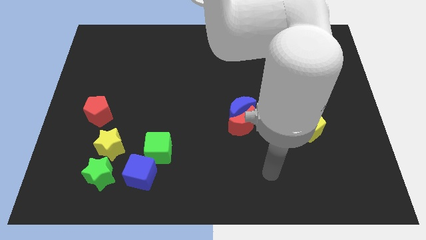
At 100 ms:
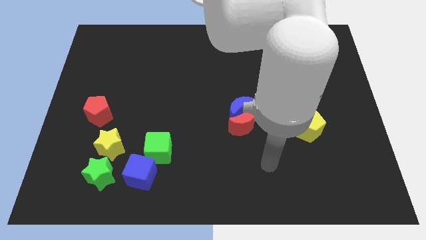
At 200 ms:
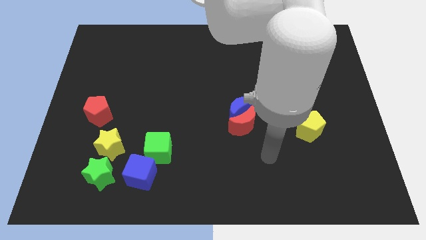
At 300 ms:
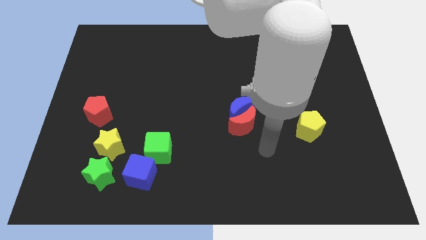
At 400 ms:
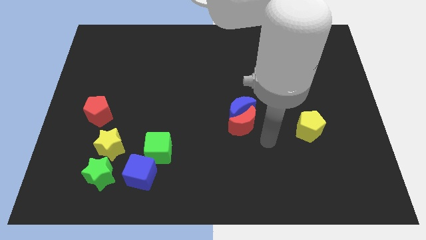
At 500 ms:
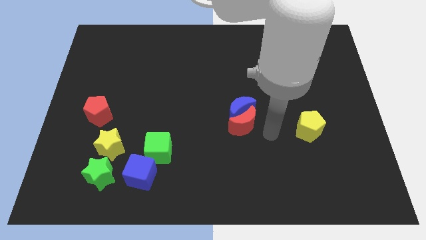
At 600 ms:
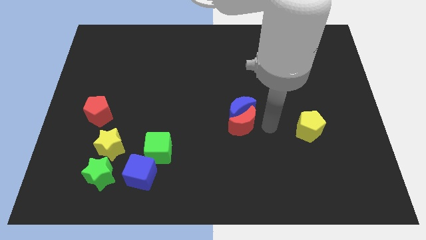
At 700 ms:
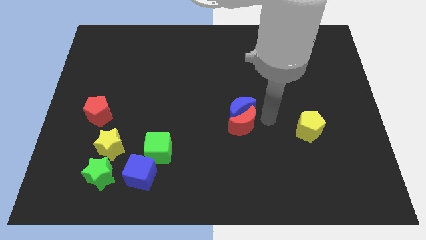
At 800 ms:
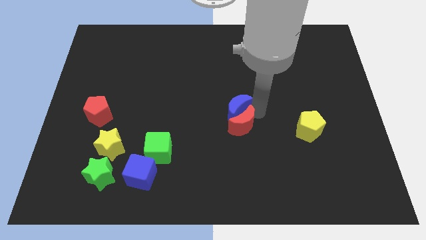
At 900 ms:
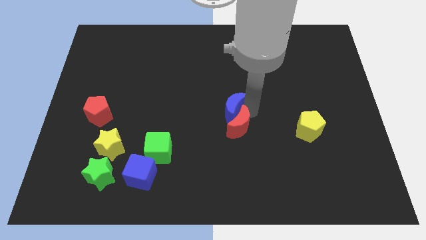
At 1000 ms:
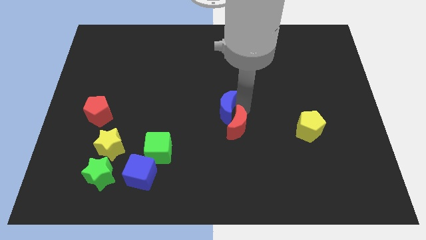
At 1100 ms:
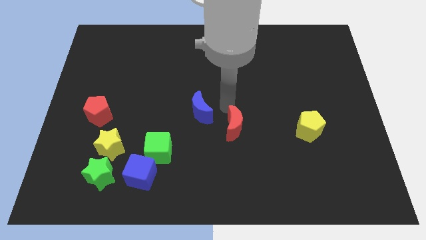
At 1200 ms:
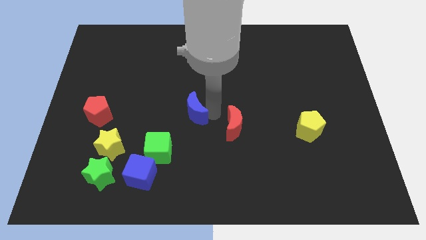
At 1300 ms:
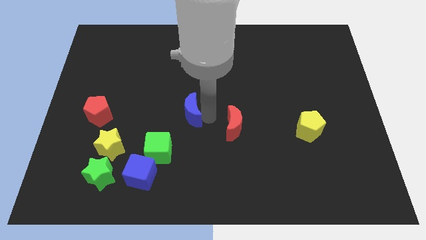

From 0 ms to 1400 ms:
pull the red moon apart from the blue moon

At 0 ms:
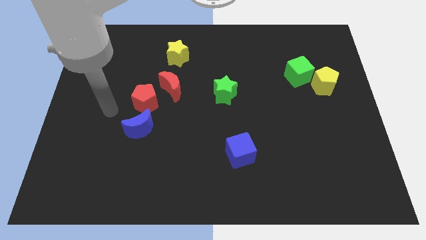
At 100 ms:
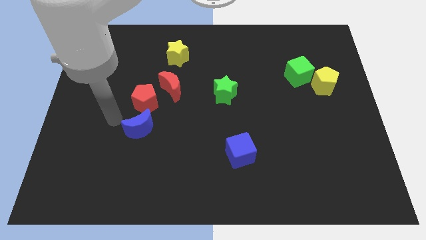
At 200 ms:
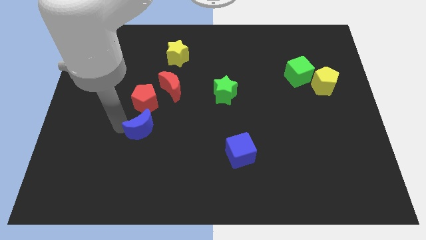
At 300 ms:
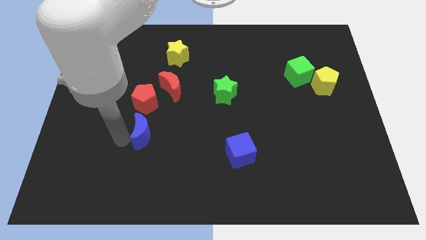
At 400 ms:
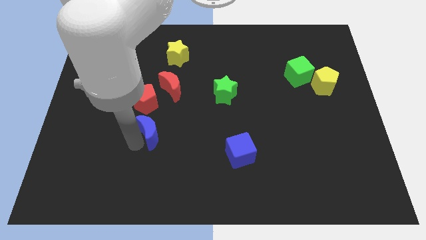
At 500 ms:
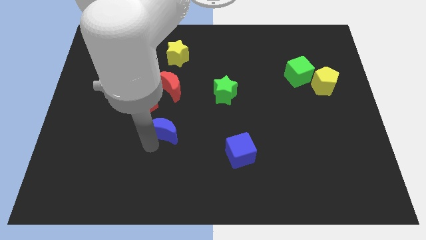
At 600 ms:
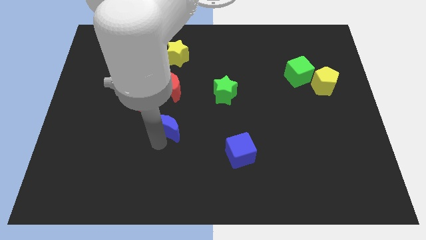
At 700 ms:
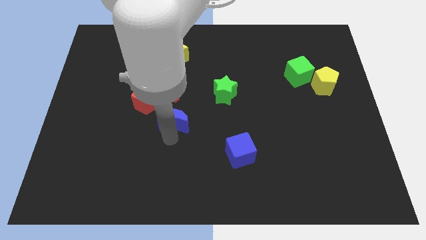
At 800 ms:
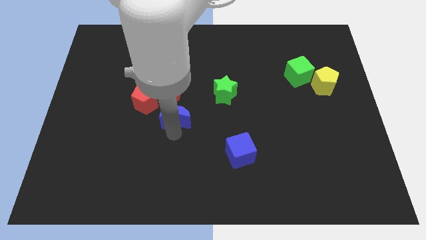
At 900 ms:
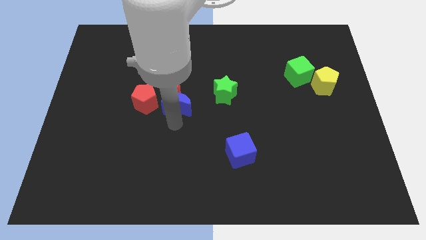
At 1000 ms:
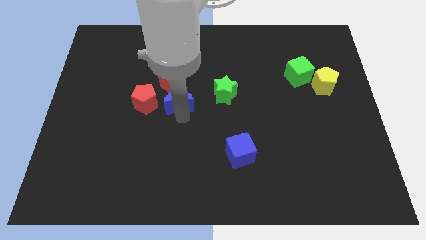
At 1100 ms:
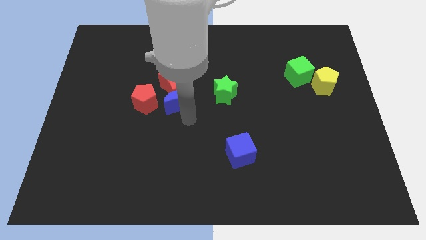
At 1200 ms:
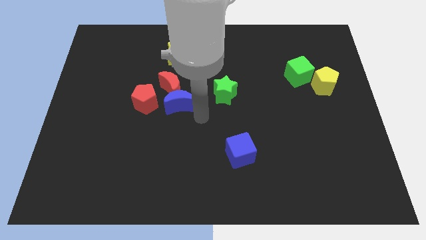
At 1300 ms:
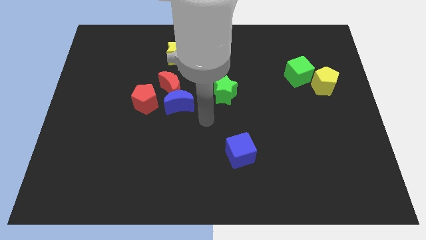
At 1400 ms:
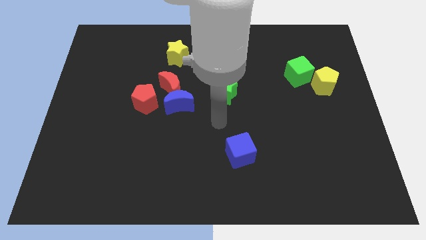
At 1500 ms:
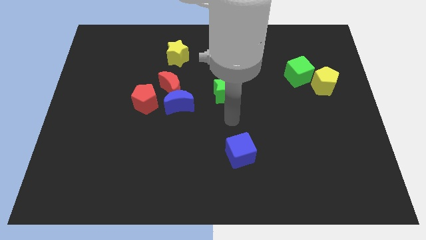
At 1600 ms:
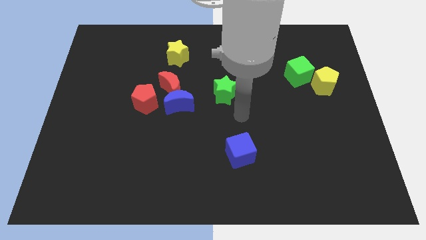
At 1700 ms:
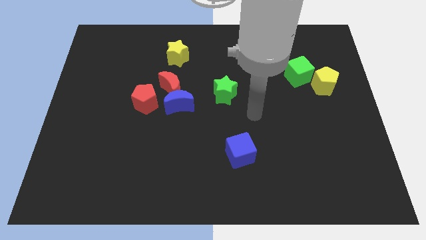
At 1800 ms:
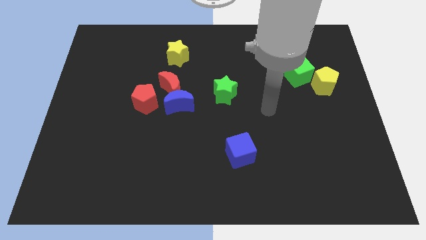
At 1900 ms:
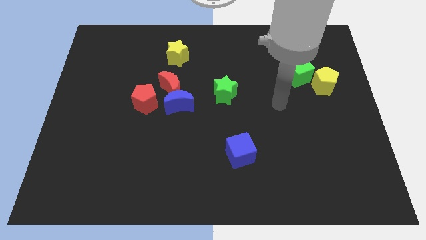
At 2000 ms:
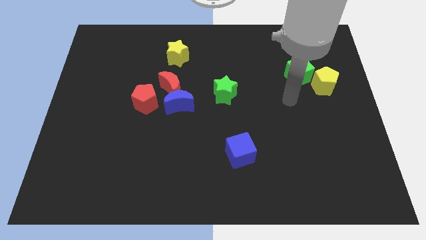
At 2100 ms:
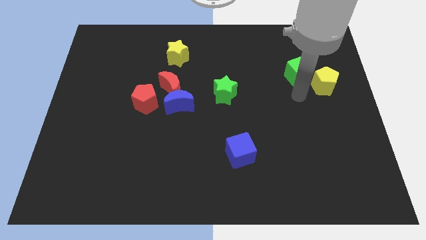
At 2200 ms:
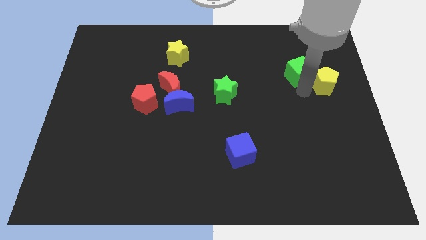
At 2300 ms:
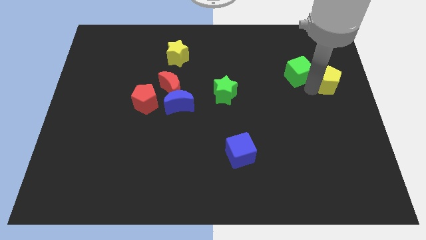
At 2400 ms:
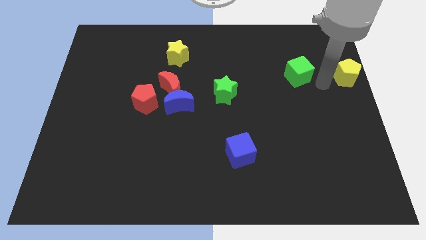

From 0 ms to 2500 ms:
pull the green cube apart from the yellow pentagon

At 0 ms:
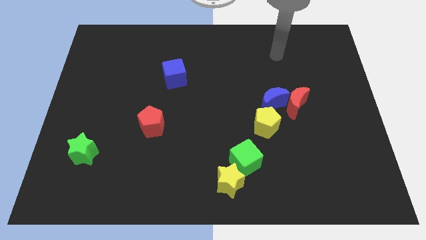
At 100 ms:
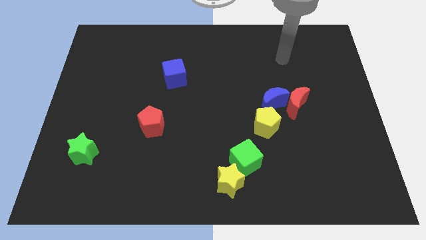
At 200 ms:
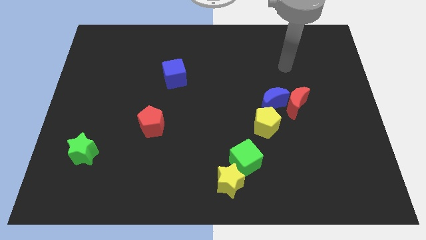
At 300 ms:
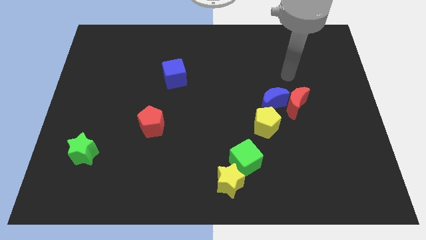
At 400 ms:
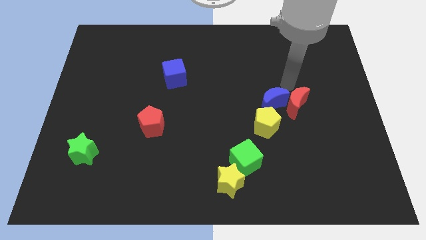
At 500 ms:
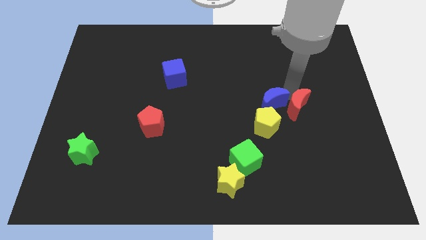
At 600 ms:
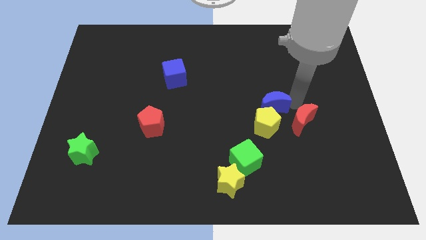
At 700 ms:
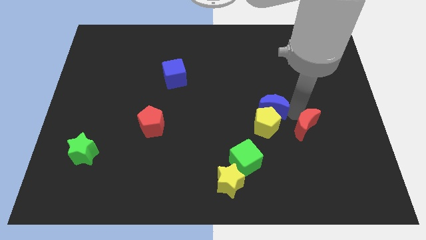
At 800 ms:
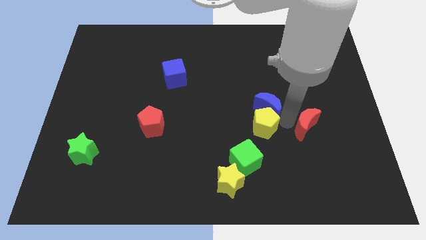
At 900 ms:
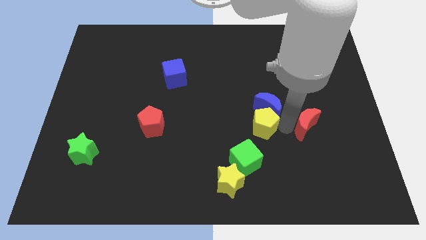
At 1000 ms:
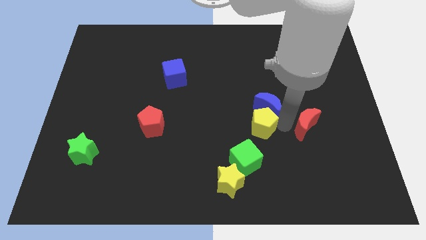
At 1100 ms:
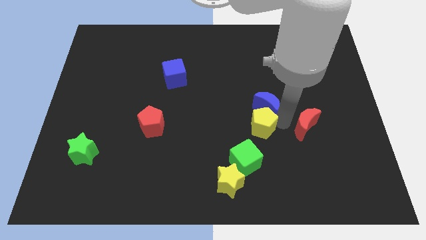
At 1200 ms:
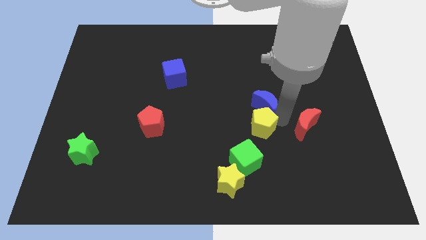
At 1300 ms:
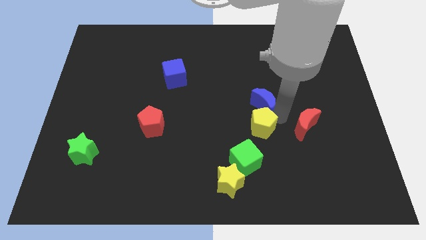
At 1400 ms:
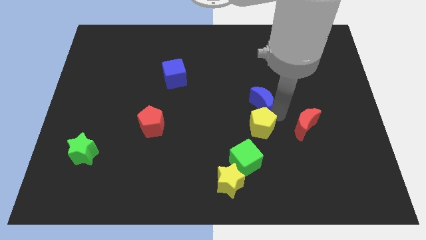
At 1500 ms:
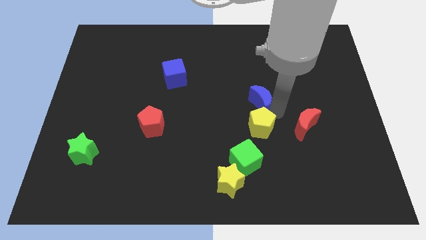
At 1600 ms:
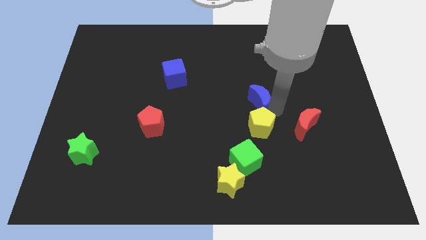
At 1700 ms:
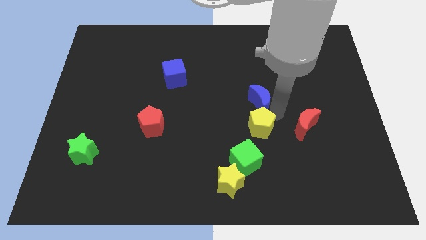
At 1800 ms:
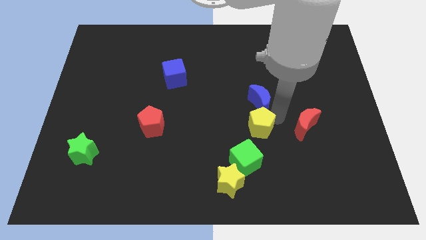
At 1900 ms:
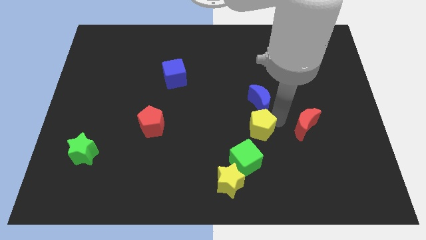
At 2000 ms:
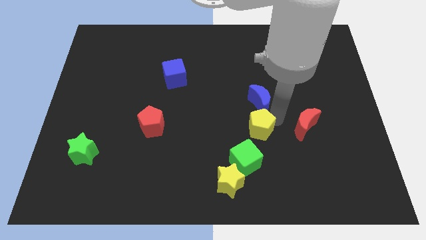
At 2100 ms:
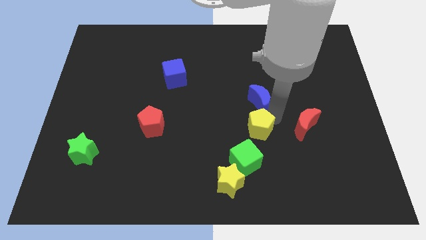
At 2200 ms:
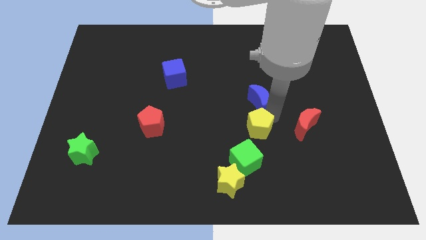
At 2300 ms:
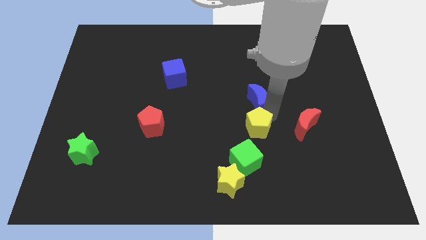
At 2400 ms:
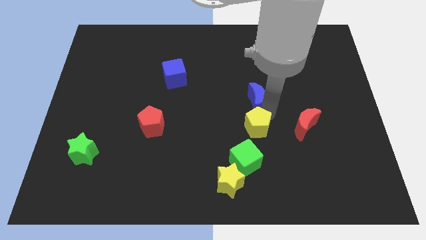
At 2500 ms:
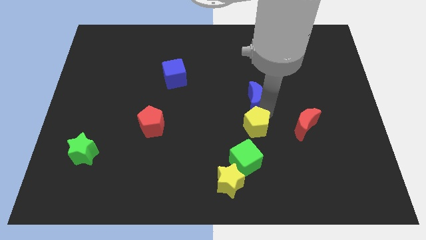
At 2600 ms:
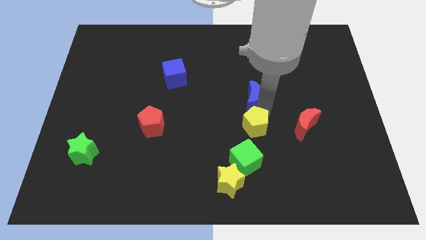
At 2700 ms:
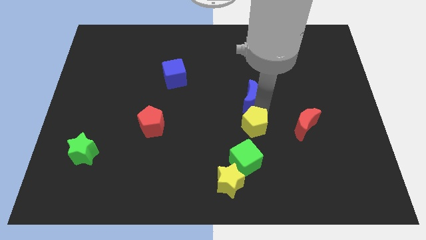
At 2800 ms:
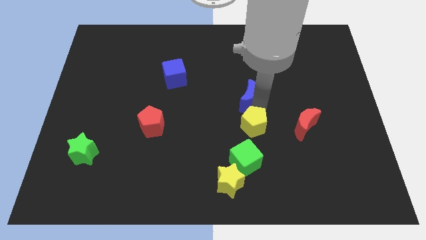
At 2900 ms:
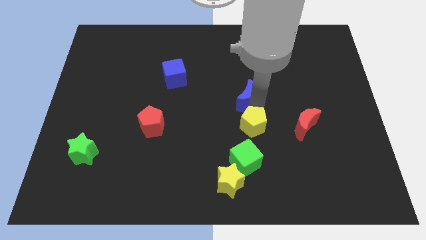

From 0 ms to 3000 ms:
separate the blue moon from the red moon and yellow pentagon

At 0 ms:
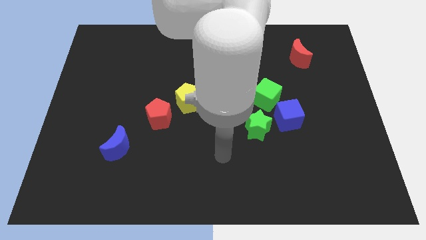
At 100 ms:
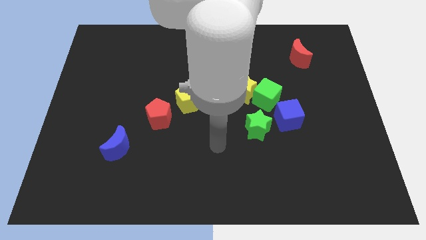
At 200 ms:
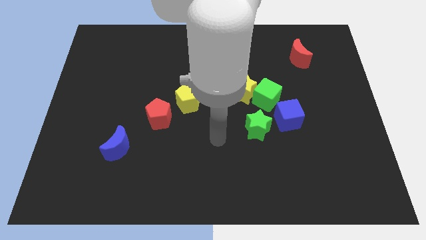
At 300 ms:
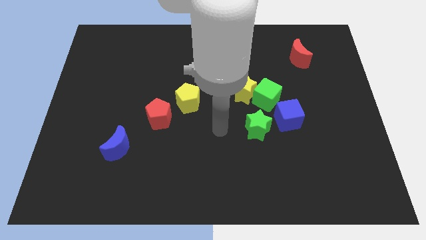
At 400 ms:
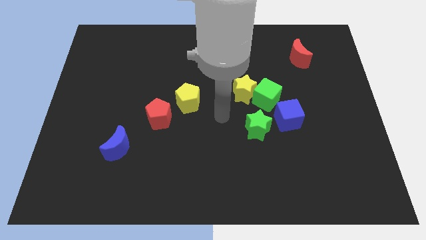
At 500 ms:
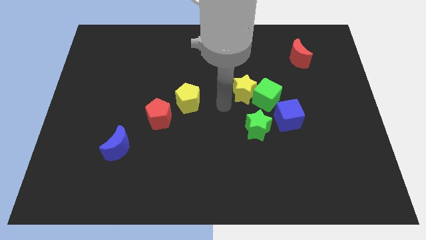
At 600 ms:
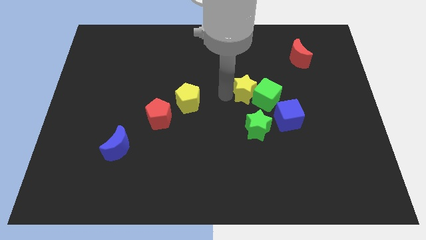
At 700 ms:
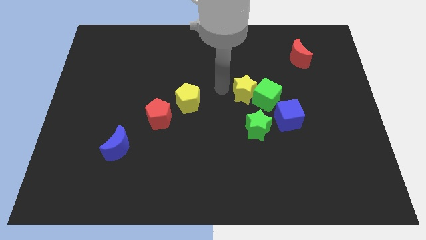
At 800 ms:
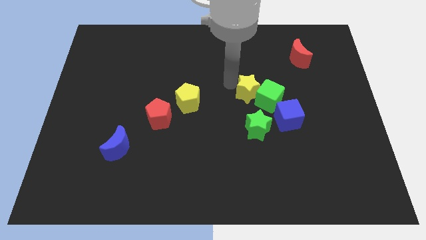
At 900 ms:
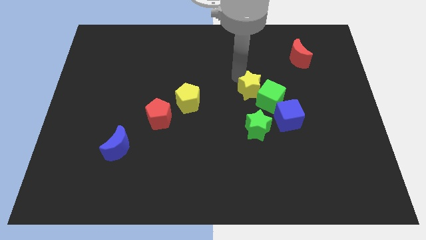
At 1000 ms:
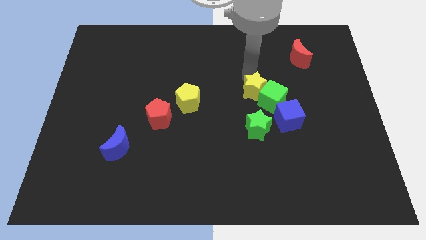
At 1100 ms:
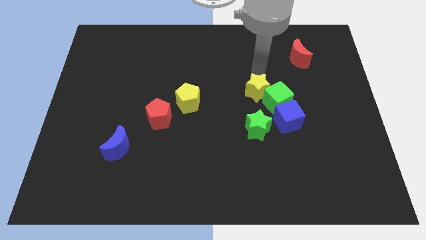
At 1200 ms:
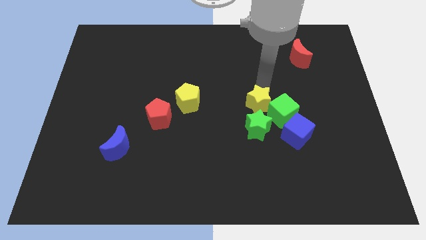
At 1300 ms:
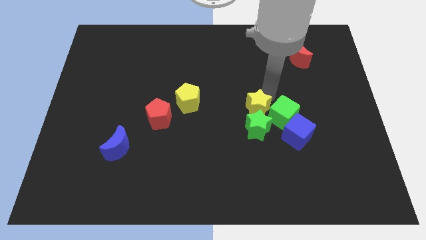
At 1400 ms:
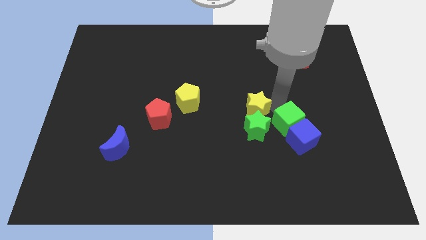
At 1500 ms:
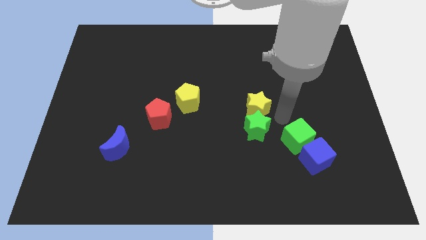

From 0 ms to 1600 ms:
move the yellow star away from the green cube

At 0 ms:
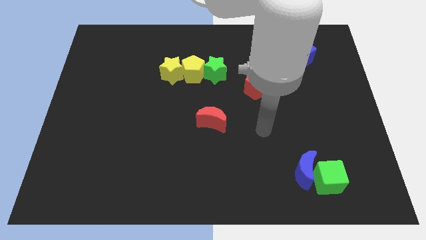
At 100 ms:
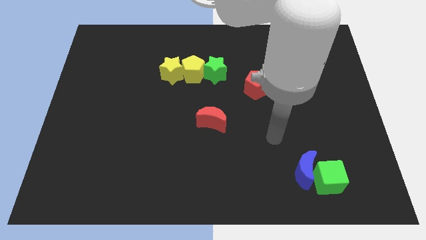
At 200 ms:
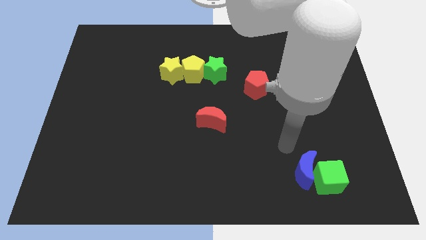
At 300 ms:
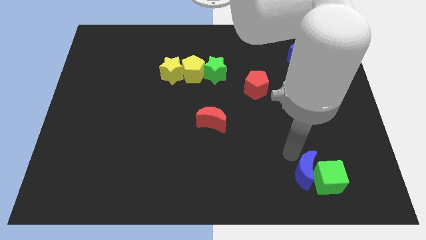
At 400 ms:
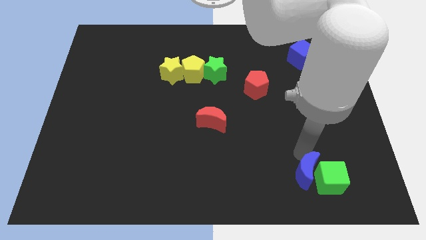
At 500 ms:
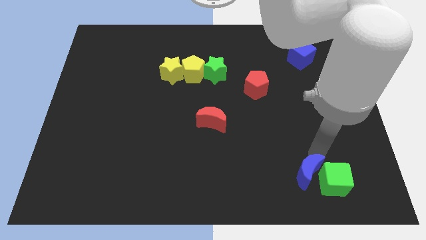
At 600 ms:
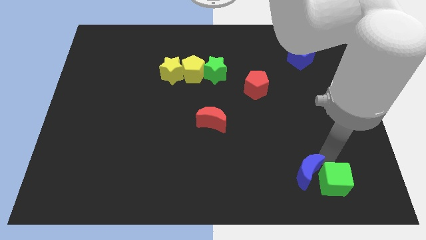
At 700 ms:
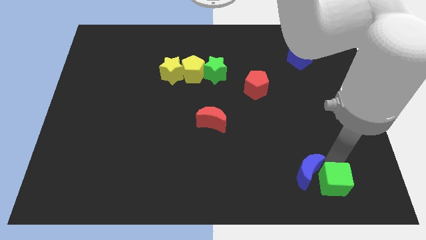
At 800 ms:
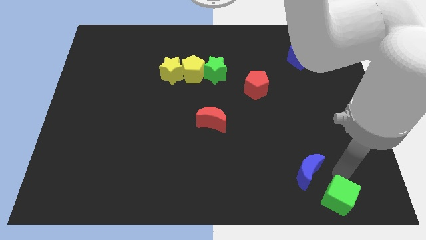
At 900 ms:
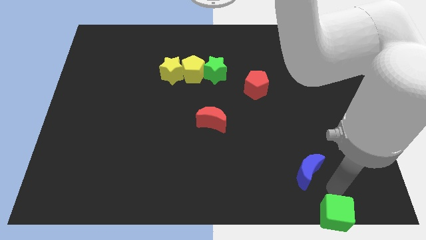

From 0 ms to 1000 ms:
pull the blue moon apart from the green cube

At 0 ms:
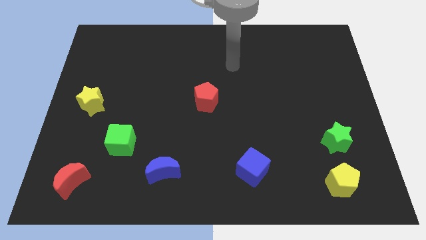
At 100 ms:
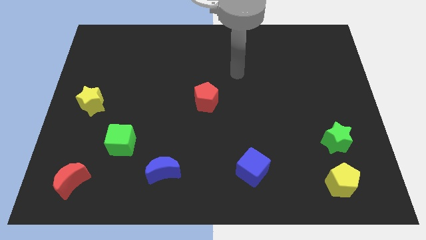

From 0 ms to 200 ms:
move the green star away from the yellow pentagon
